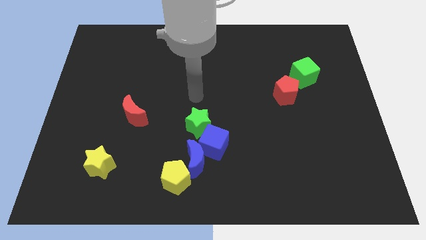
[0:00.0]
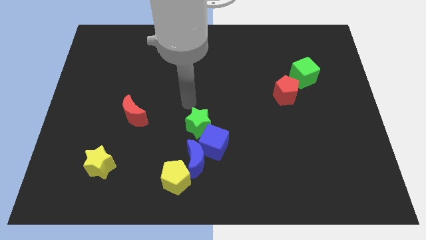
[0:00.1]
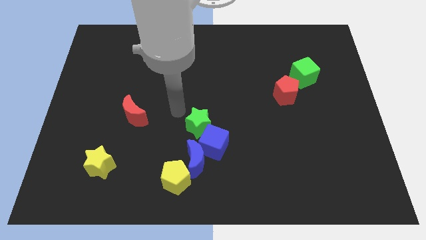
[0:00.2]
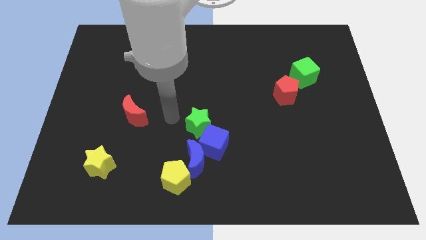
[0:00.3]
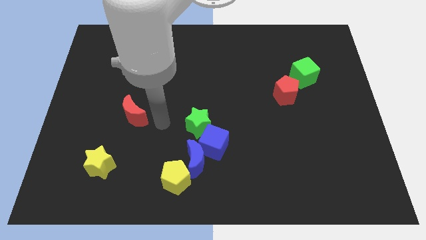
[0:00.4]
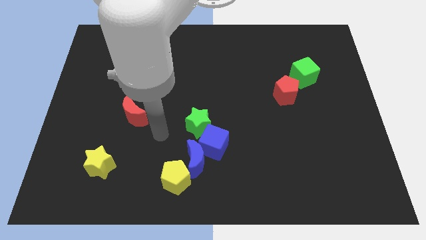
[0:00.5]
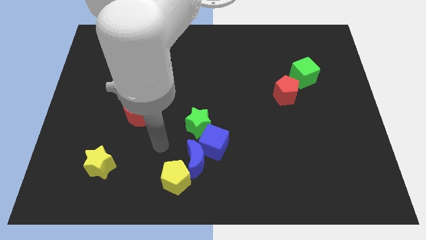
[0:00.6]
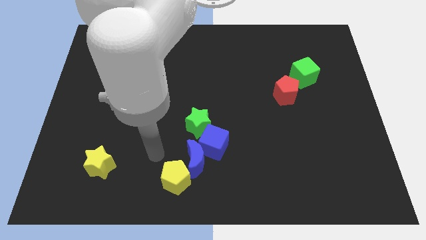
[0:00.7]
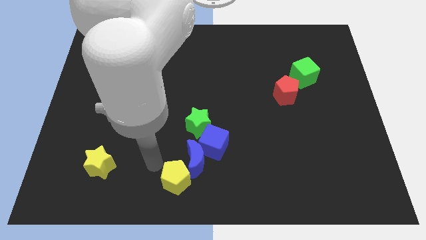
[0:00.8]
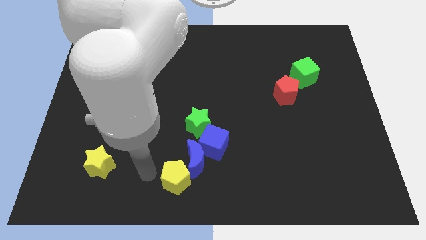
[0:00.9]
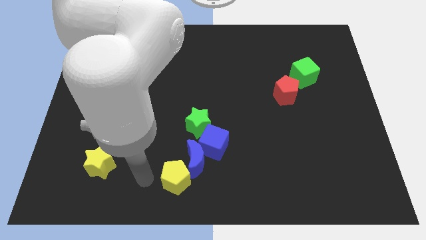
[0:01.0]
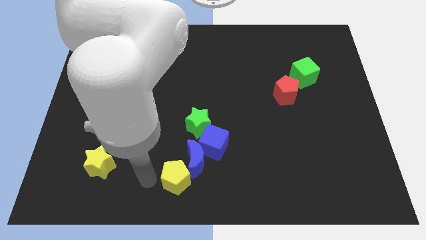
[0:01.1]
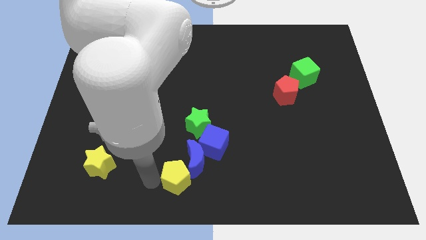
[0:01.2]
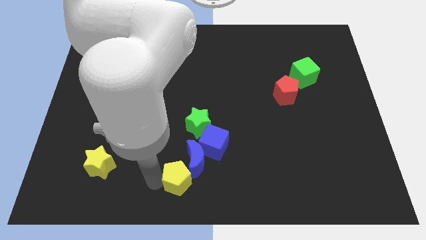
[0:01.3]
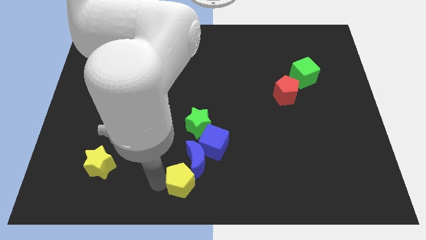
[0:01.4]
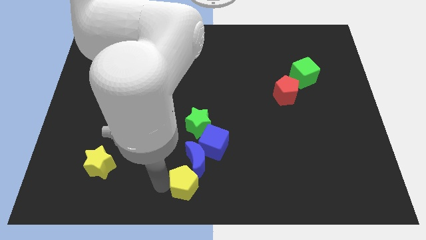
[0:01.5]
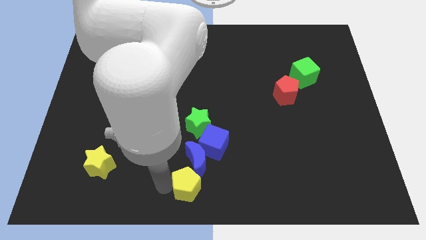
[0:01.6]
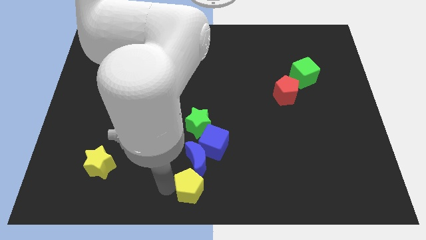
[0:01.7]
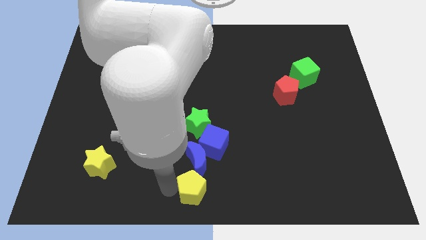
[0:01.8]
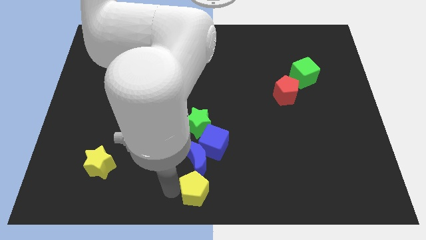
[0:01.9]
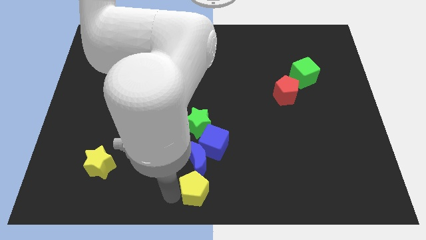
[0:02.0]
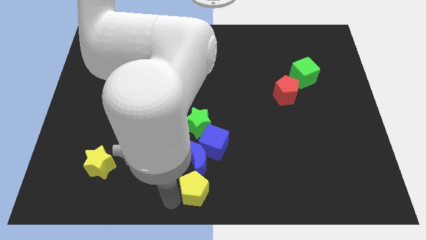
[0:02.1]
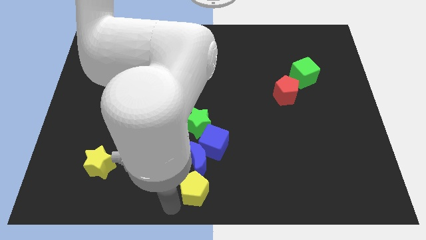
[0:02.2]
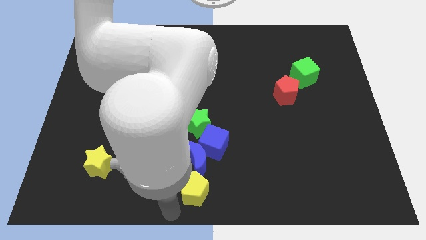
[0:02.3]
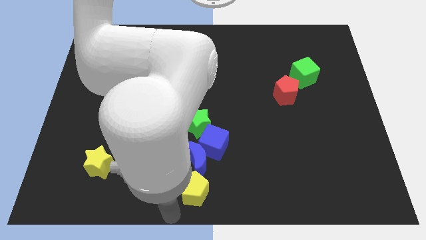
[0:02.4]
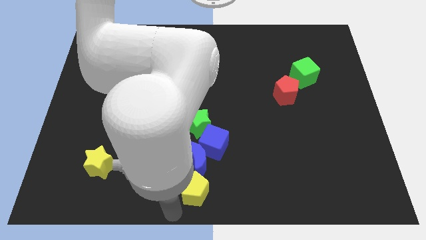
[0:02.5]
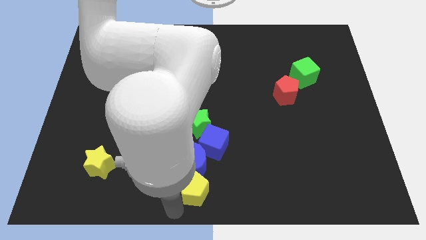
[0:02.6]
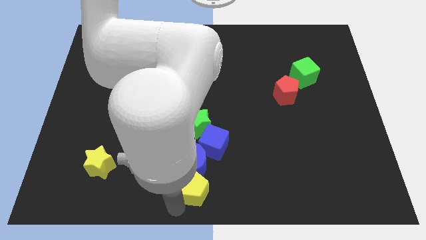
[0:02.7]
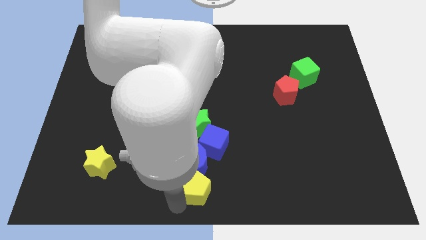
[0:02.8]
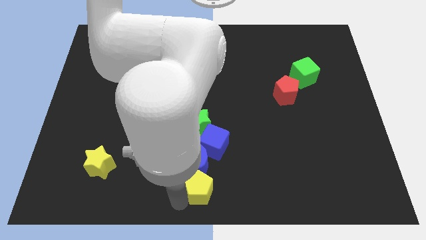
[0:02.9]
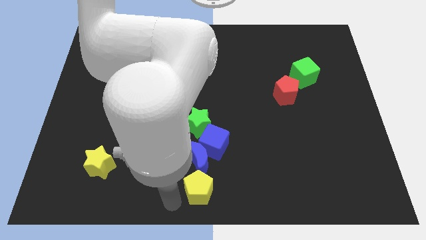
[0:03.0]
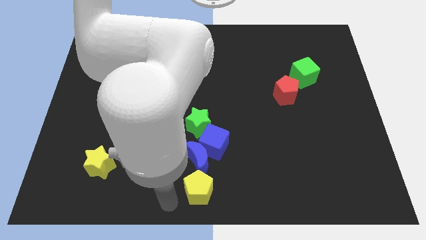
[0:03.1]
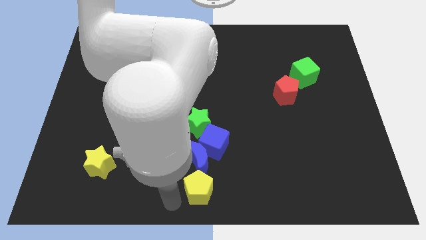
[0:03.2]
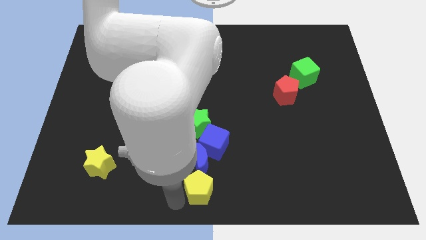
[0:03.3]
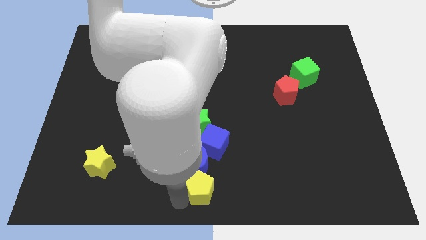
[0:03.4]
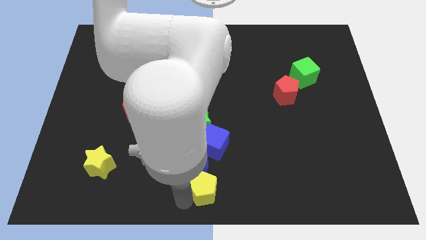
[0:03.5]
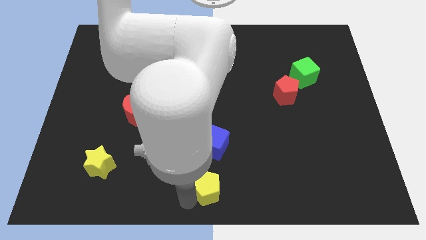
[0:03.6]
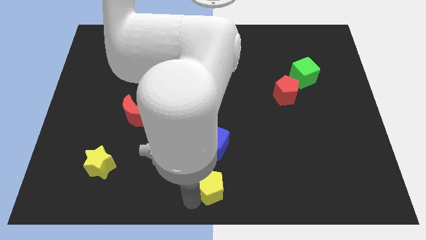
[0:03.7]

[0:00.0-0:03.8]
move the yellow pentagon a bit to the right

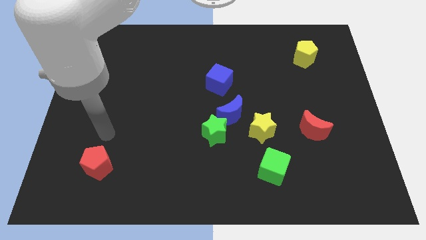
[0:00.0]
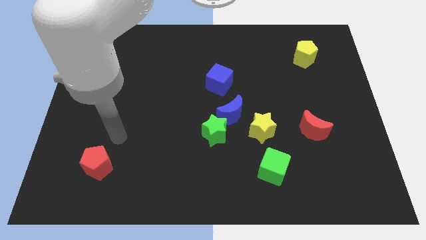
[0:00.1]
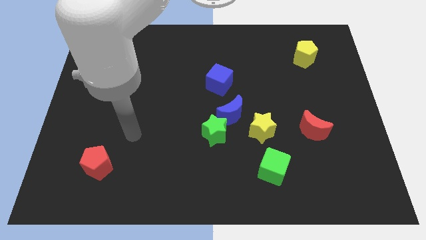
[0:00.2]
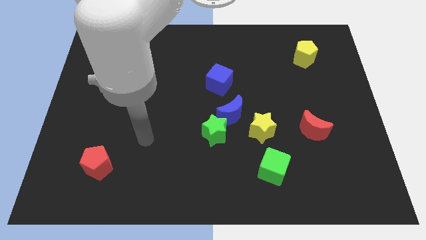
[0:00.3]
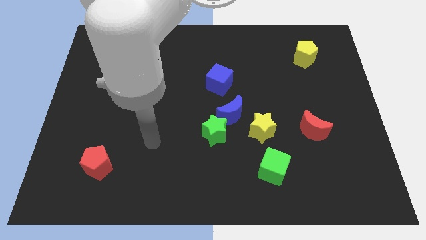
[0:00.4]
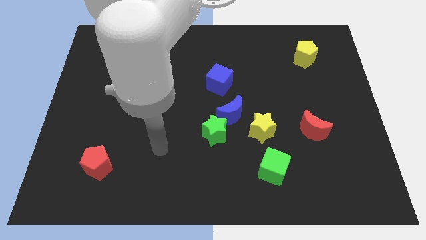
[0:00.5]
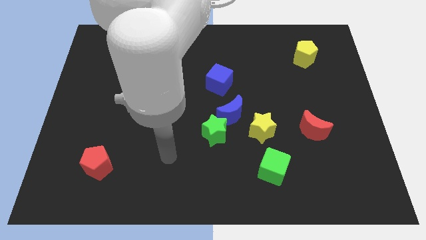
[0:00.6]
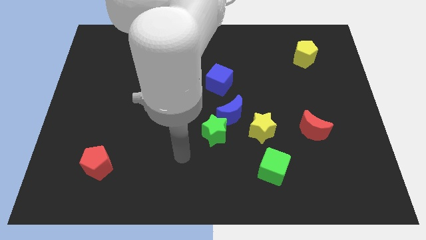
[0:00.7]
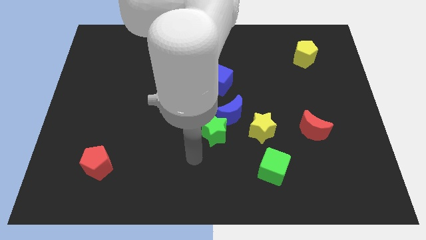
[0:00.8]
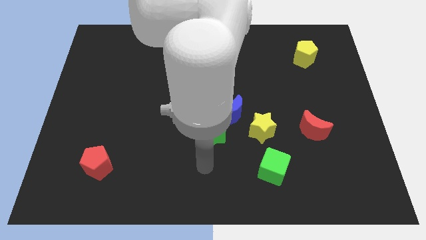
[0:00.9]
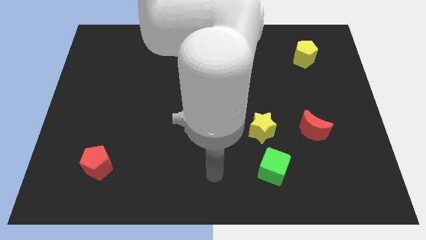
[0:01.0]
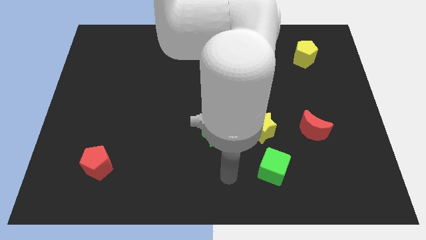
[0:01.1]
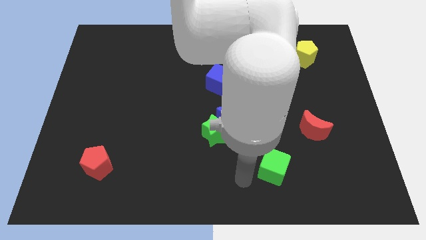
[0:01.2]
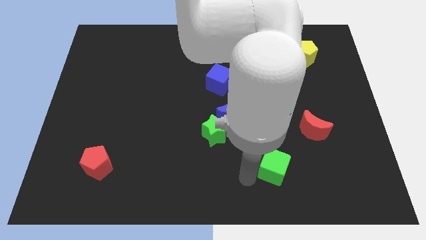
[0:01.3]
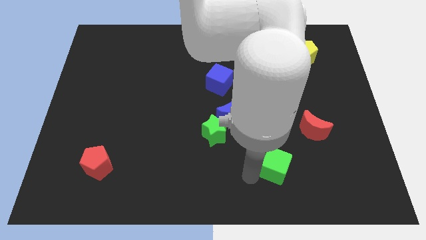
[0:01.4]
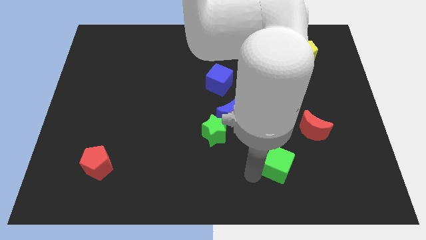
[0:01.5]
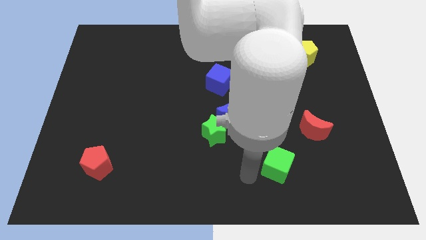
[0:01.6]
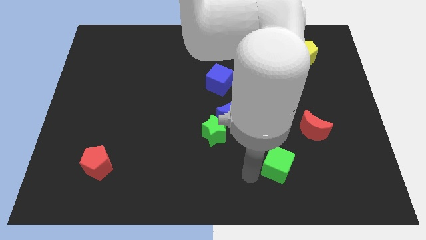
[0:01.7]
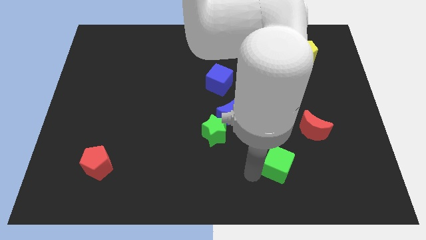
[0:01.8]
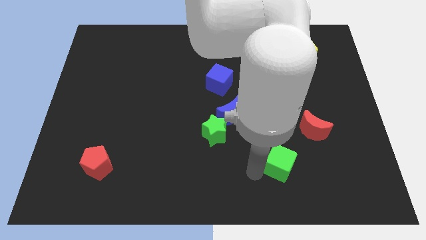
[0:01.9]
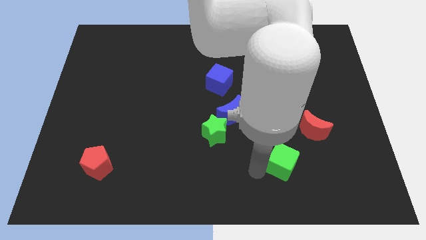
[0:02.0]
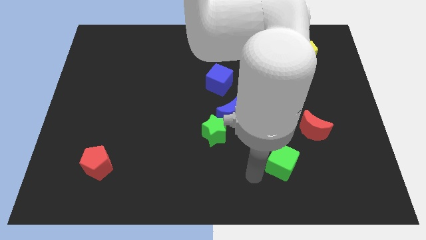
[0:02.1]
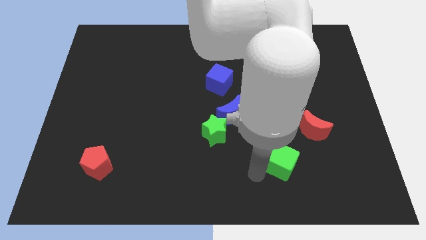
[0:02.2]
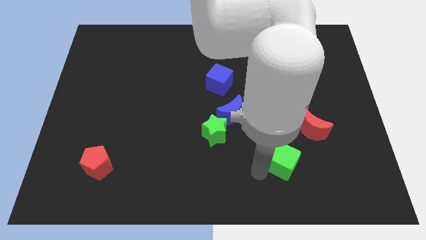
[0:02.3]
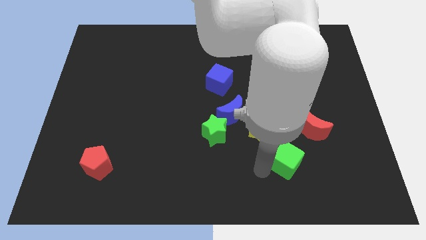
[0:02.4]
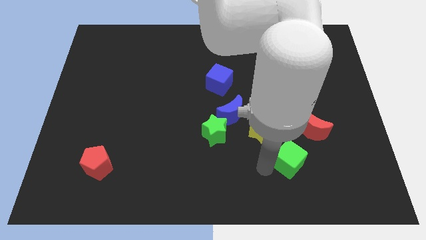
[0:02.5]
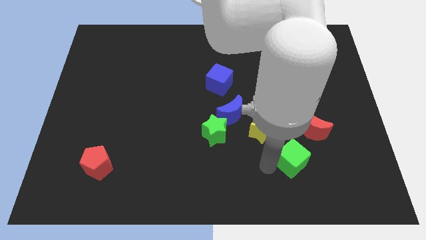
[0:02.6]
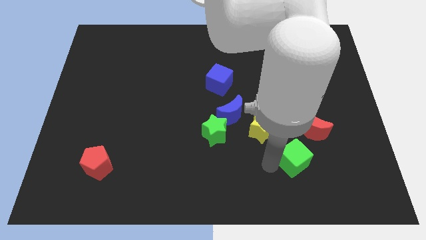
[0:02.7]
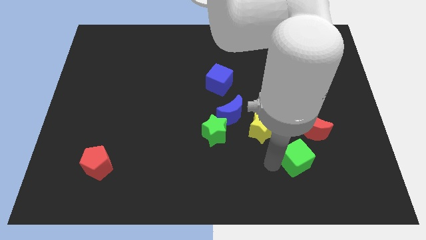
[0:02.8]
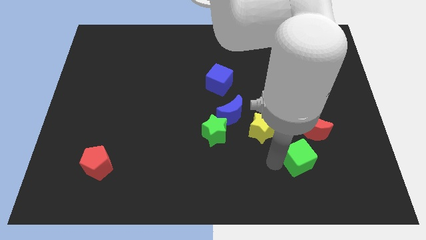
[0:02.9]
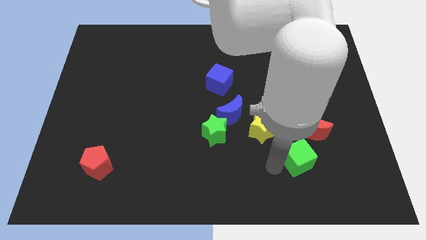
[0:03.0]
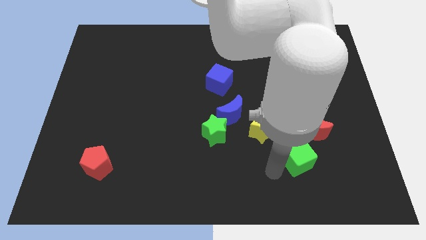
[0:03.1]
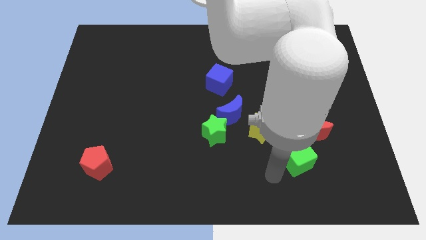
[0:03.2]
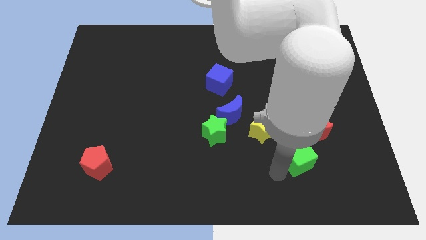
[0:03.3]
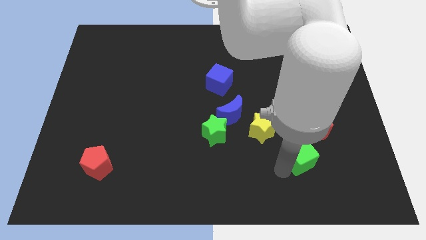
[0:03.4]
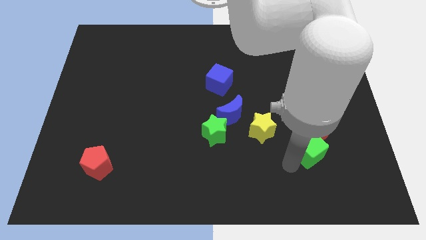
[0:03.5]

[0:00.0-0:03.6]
slide the green cube up and right a little bit

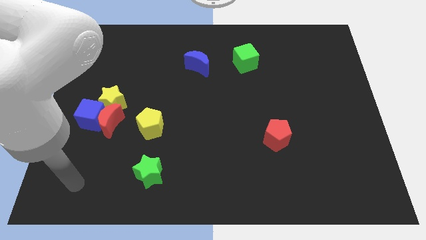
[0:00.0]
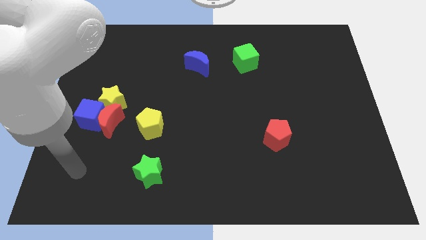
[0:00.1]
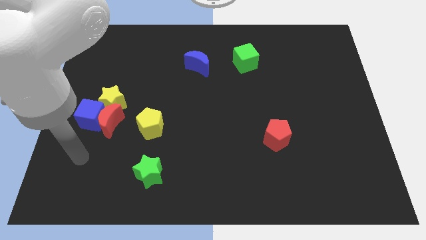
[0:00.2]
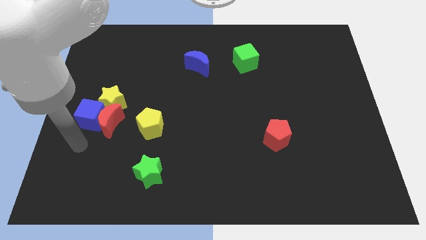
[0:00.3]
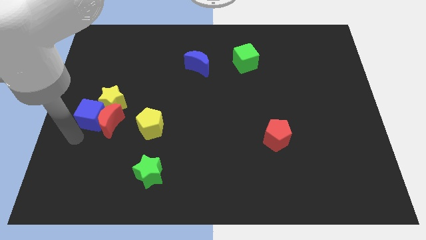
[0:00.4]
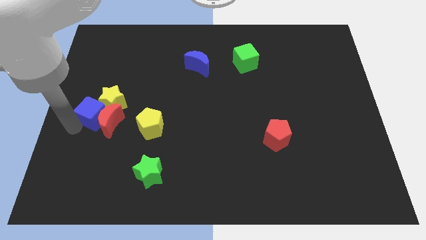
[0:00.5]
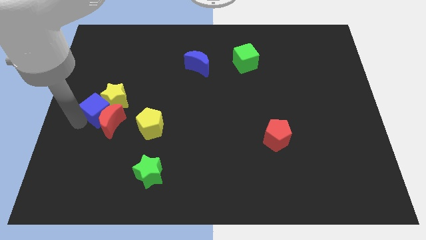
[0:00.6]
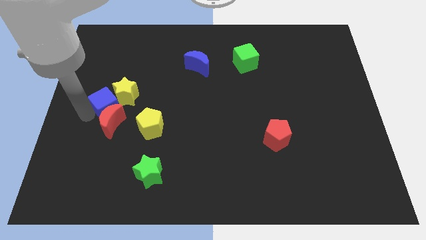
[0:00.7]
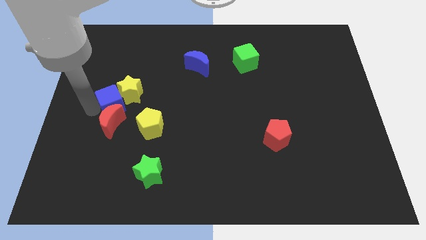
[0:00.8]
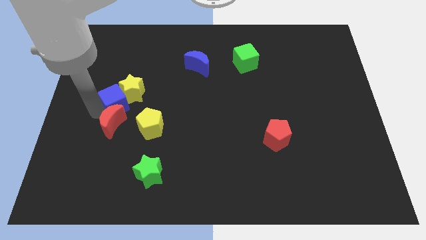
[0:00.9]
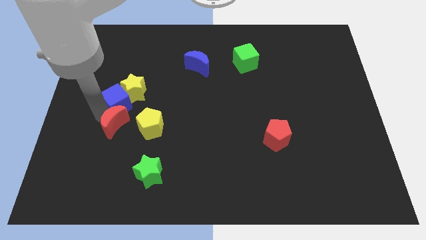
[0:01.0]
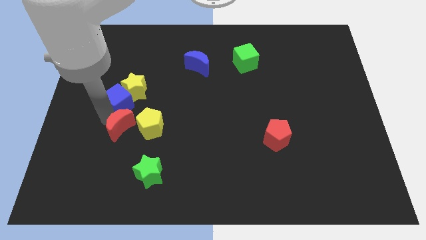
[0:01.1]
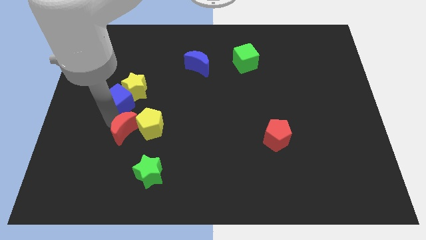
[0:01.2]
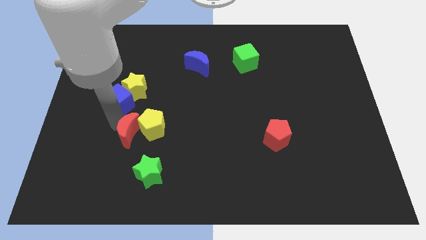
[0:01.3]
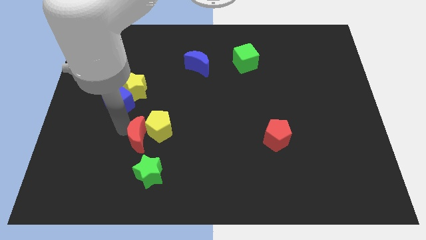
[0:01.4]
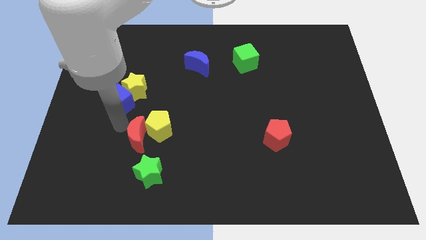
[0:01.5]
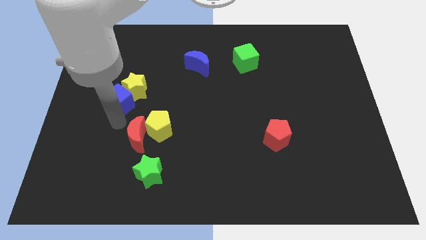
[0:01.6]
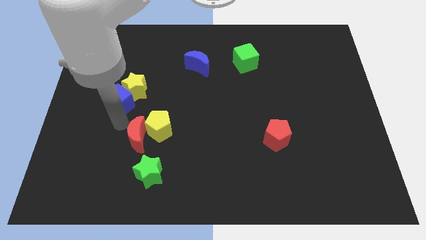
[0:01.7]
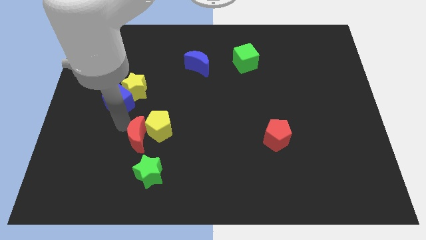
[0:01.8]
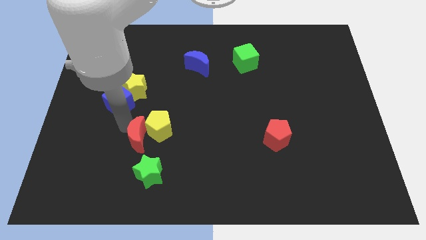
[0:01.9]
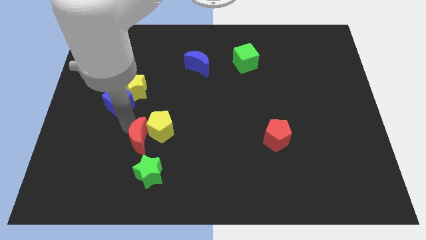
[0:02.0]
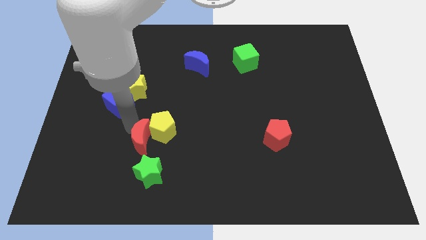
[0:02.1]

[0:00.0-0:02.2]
slightly push the red moon to the right
